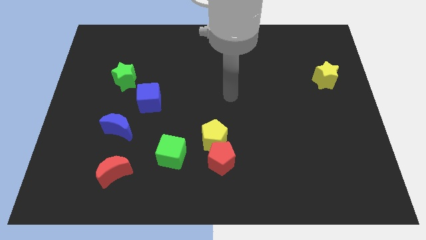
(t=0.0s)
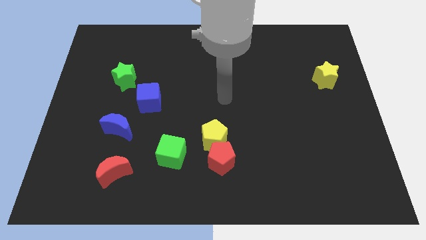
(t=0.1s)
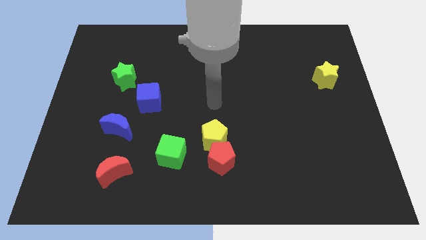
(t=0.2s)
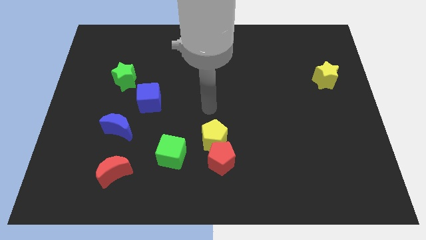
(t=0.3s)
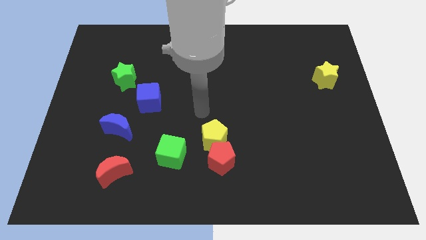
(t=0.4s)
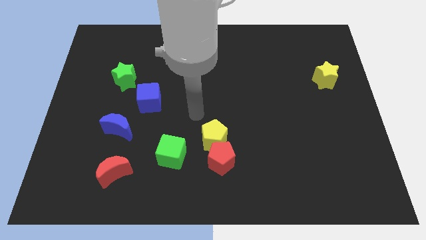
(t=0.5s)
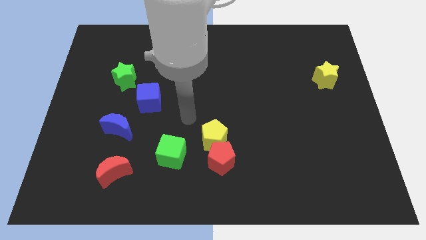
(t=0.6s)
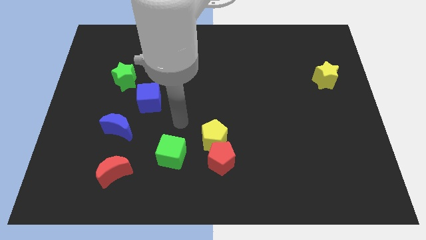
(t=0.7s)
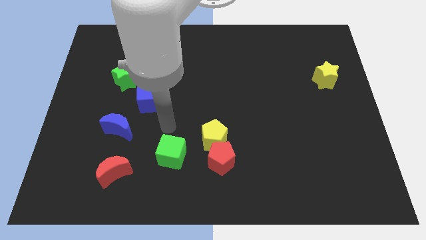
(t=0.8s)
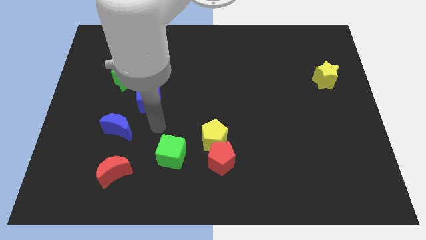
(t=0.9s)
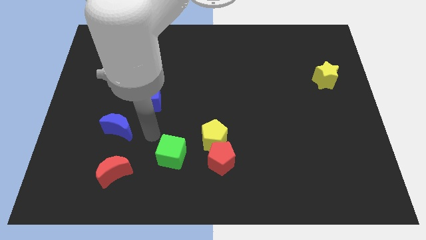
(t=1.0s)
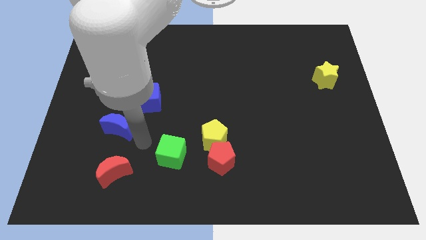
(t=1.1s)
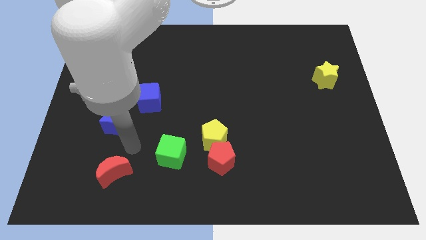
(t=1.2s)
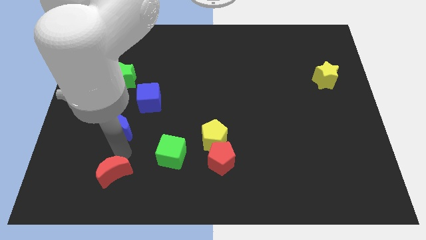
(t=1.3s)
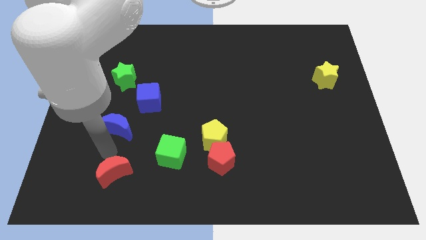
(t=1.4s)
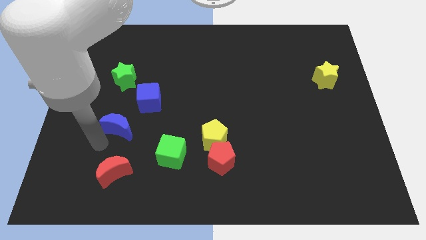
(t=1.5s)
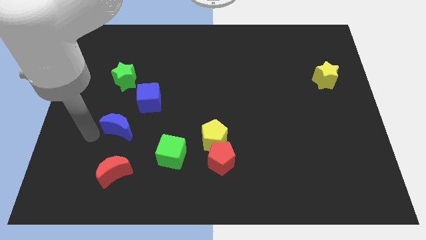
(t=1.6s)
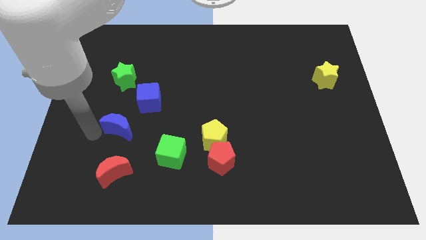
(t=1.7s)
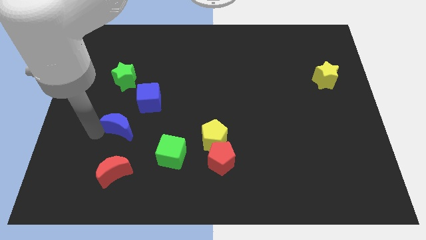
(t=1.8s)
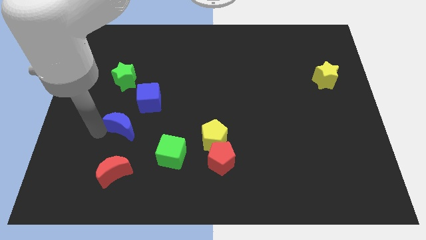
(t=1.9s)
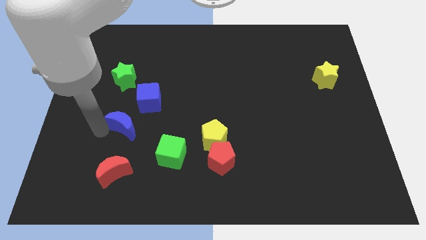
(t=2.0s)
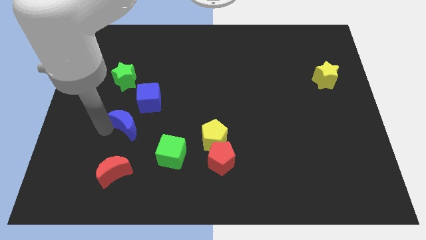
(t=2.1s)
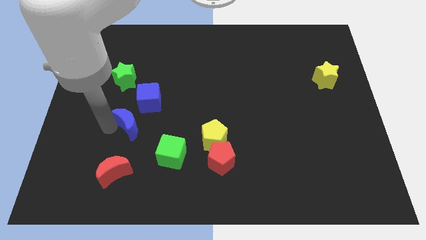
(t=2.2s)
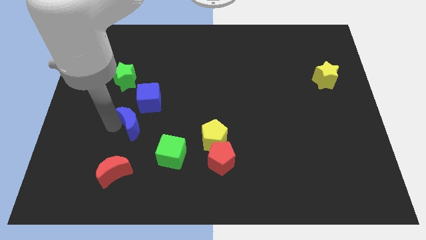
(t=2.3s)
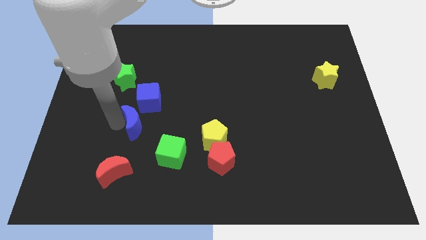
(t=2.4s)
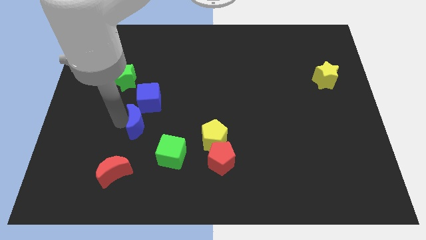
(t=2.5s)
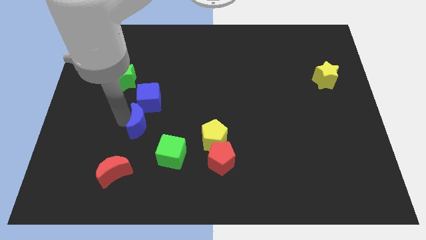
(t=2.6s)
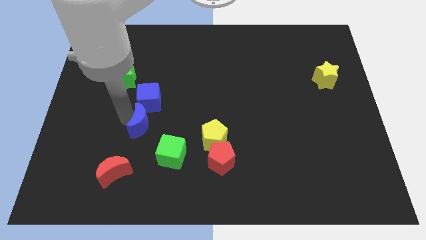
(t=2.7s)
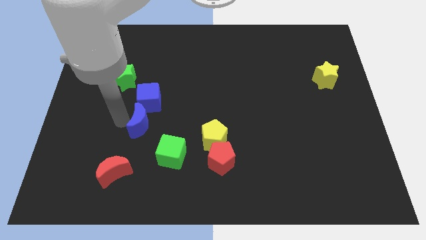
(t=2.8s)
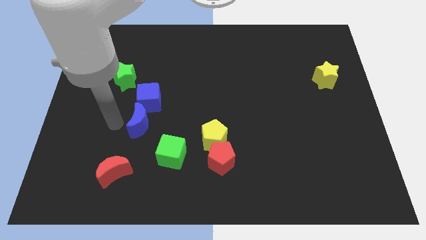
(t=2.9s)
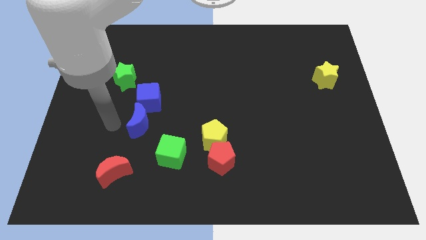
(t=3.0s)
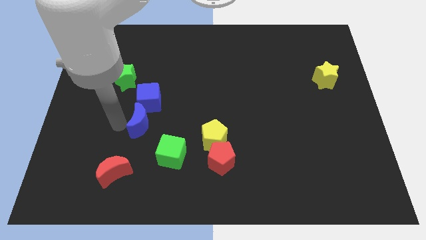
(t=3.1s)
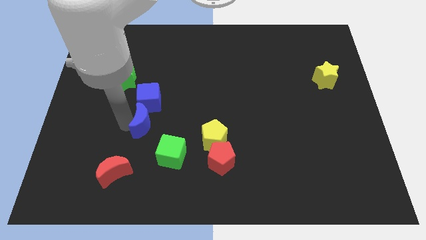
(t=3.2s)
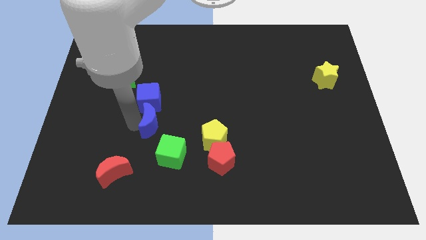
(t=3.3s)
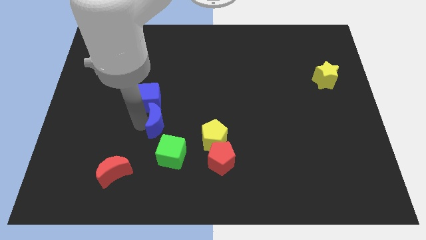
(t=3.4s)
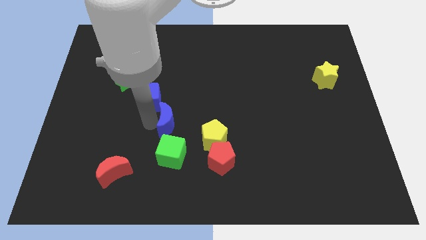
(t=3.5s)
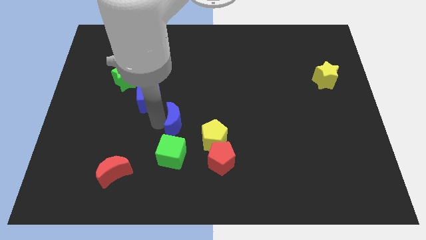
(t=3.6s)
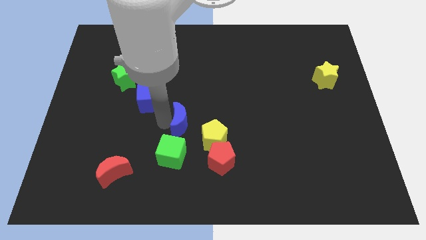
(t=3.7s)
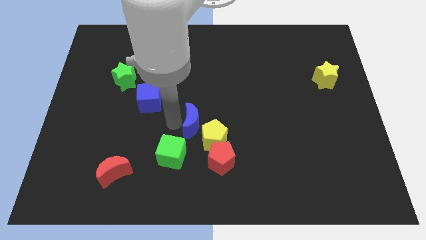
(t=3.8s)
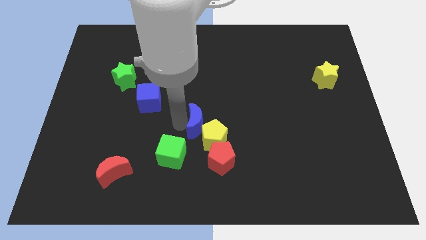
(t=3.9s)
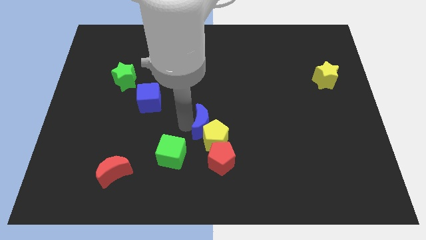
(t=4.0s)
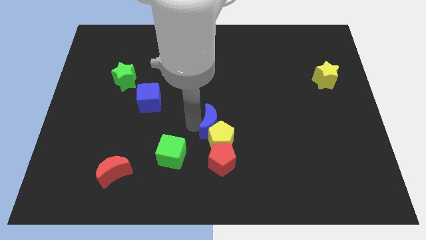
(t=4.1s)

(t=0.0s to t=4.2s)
move the blue moon right

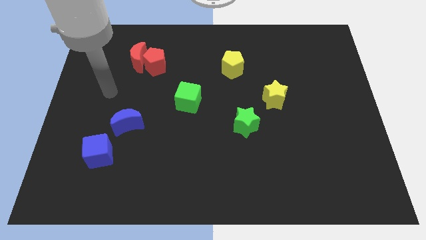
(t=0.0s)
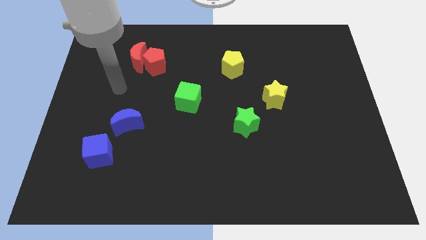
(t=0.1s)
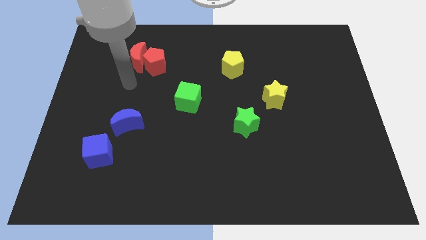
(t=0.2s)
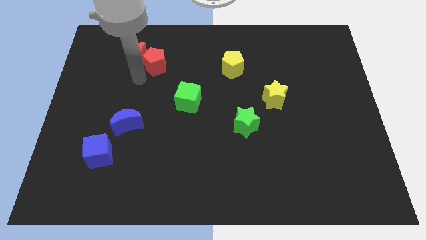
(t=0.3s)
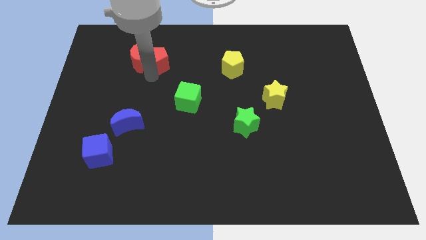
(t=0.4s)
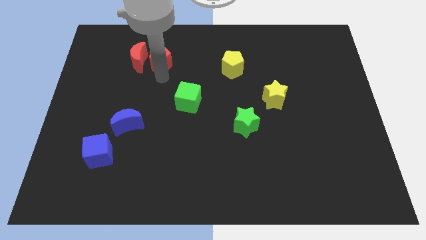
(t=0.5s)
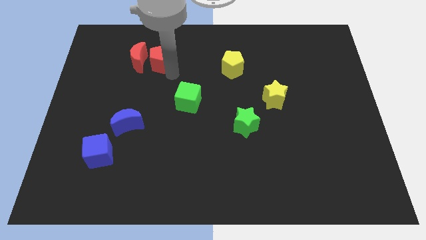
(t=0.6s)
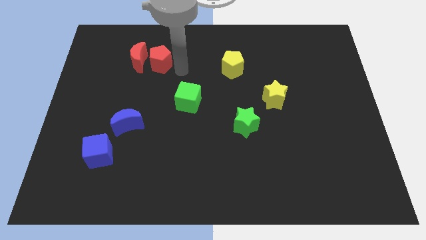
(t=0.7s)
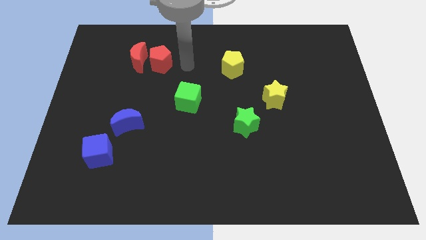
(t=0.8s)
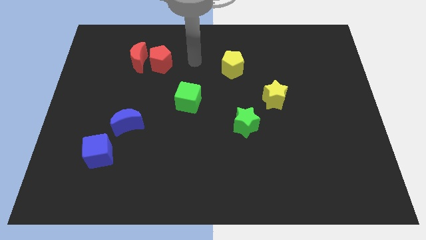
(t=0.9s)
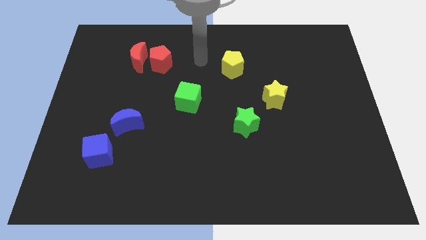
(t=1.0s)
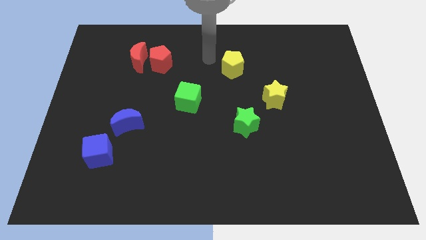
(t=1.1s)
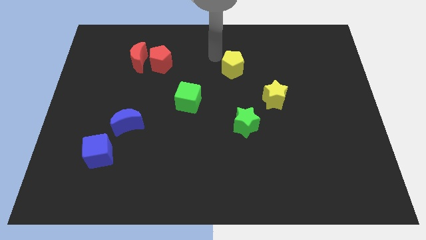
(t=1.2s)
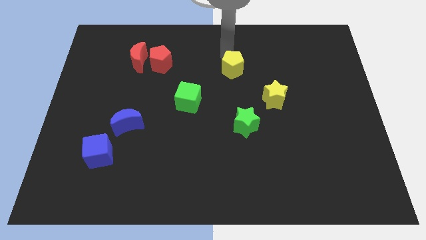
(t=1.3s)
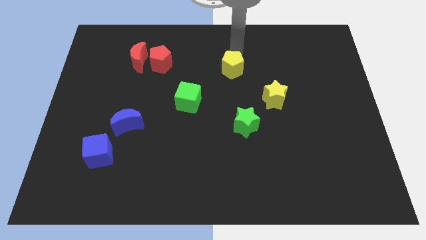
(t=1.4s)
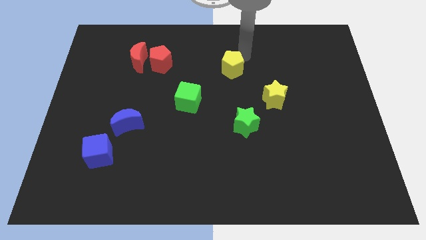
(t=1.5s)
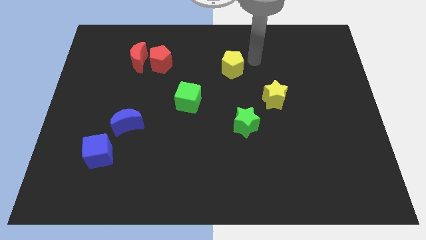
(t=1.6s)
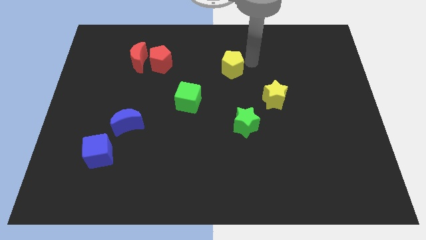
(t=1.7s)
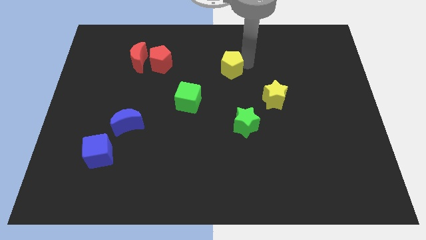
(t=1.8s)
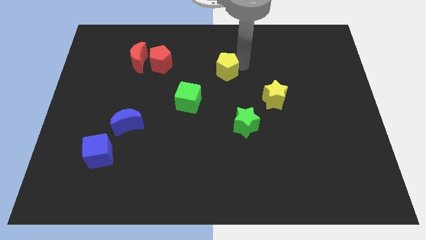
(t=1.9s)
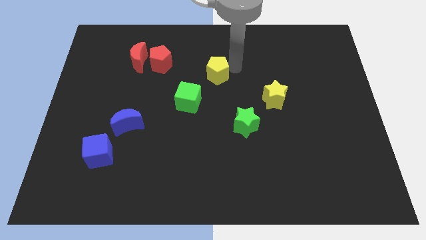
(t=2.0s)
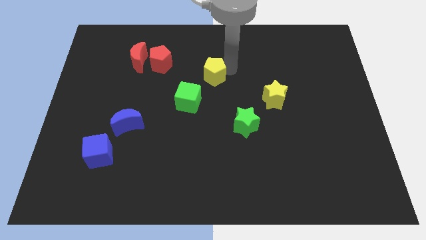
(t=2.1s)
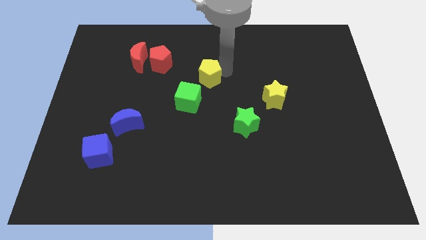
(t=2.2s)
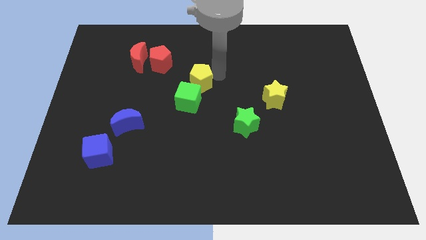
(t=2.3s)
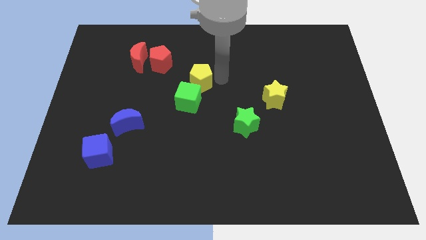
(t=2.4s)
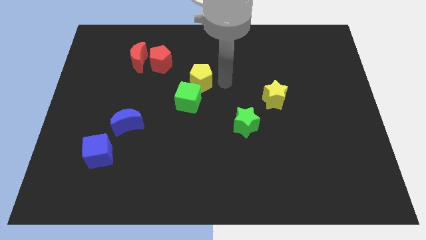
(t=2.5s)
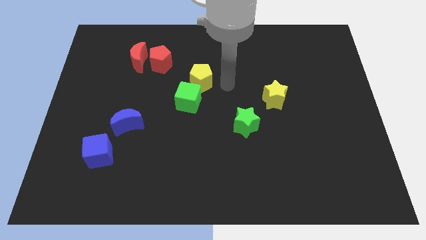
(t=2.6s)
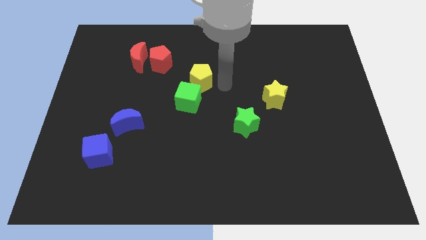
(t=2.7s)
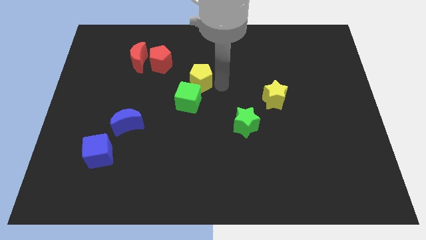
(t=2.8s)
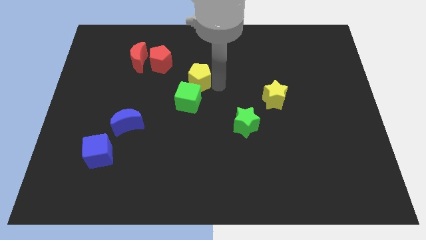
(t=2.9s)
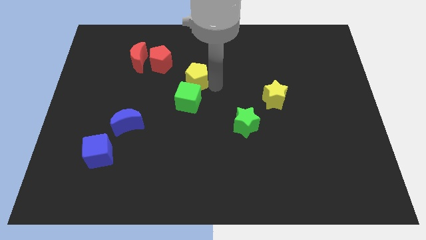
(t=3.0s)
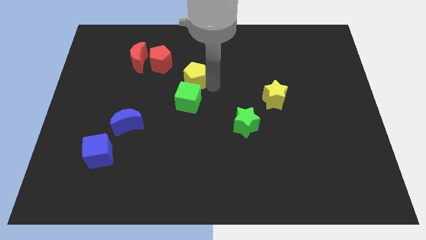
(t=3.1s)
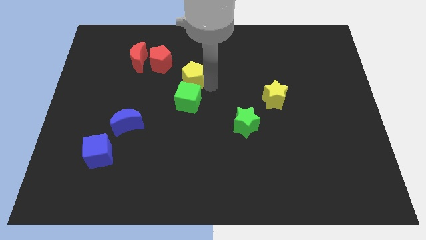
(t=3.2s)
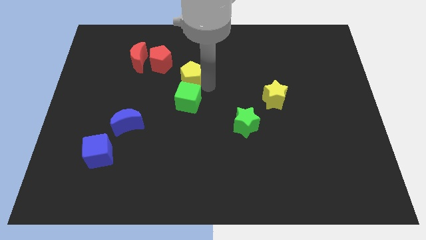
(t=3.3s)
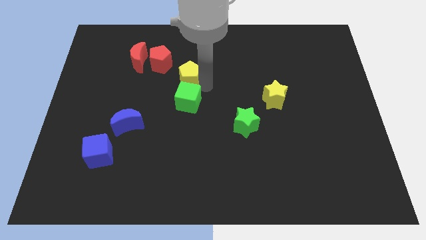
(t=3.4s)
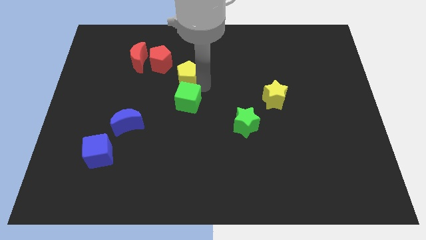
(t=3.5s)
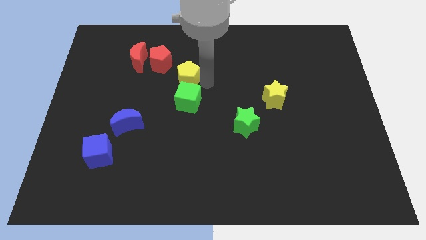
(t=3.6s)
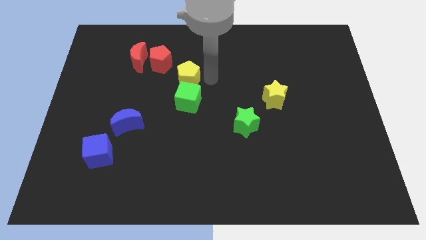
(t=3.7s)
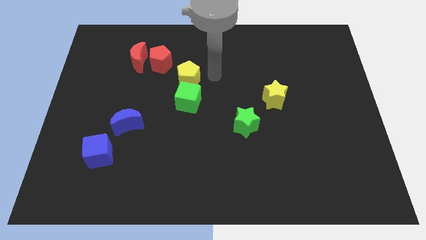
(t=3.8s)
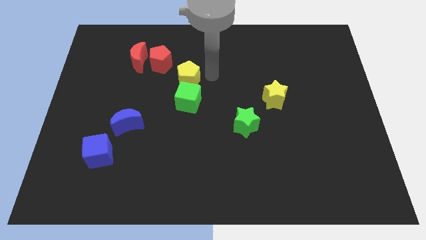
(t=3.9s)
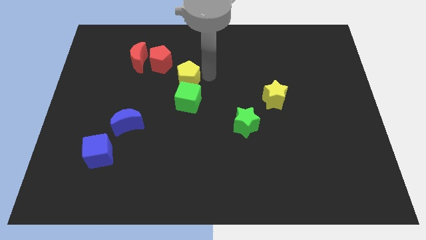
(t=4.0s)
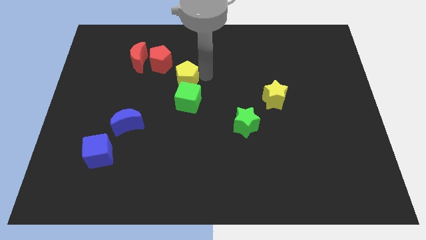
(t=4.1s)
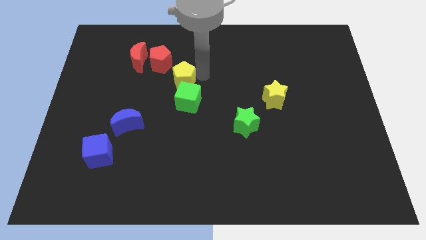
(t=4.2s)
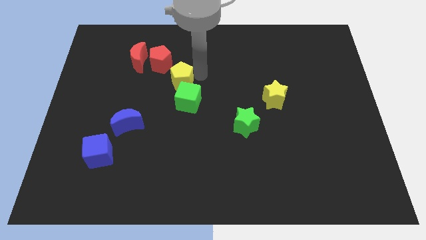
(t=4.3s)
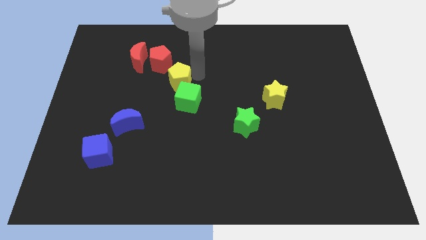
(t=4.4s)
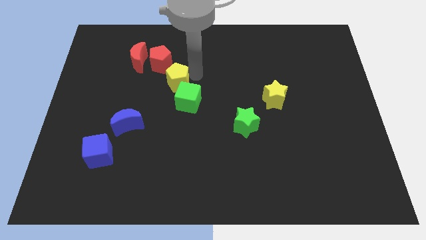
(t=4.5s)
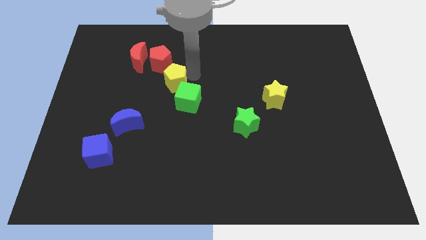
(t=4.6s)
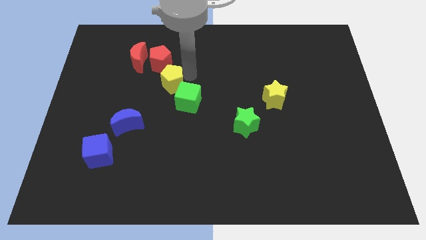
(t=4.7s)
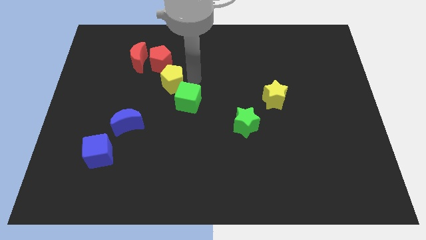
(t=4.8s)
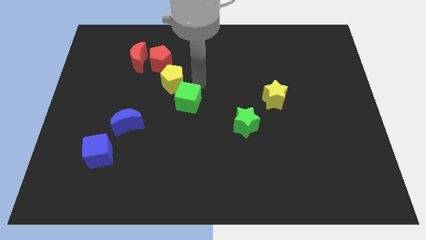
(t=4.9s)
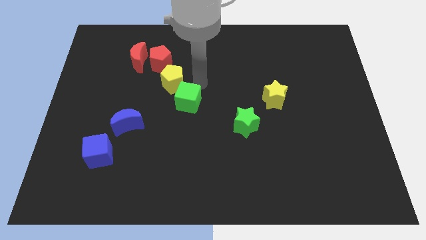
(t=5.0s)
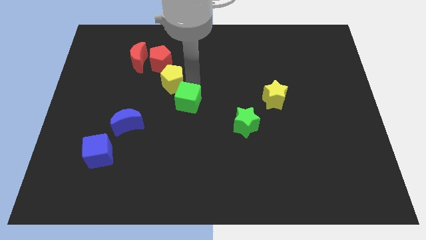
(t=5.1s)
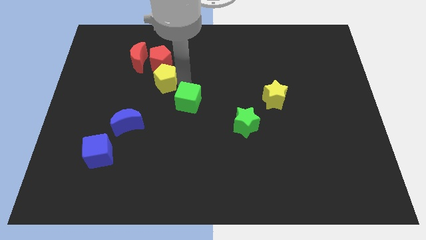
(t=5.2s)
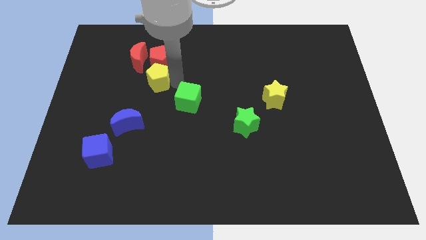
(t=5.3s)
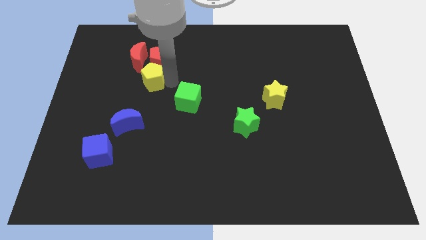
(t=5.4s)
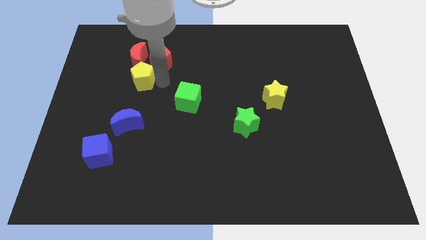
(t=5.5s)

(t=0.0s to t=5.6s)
push the yellow pentagon to the left
